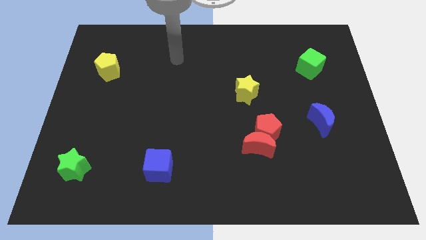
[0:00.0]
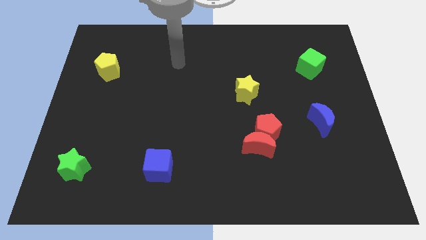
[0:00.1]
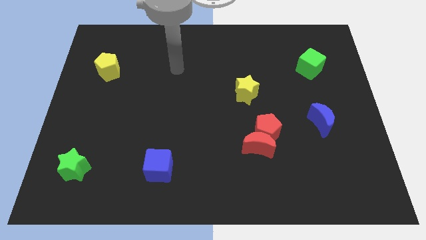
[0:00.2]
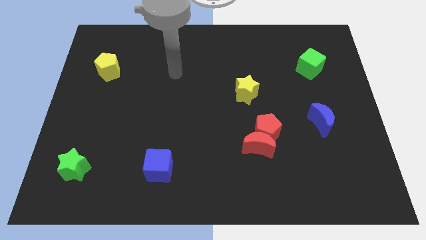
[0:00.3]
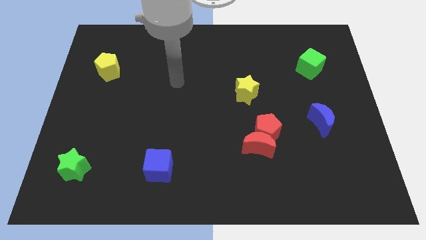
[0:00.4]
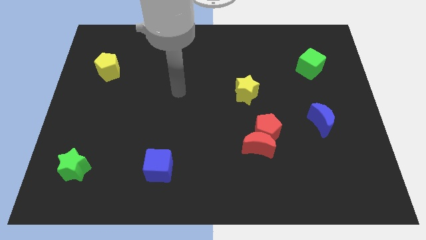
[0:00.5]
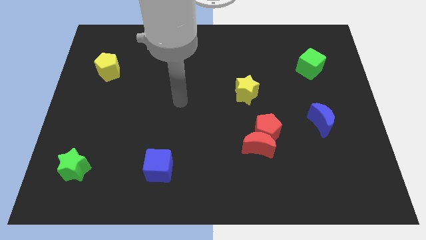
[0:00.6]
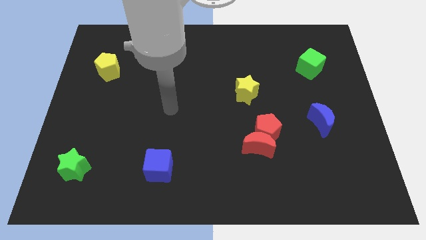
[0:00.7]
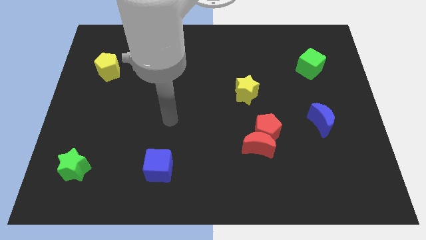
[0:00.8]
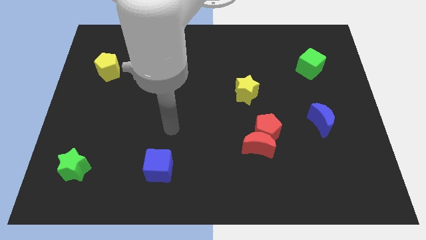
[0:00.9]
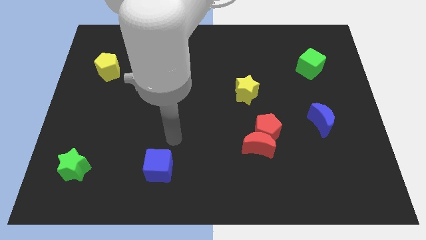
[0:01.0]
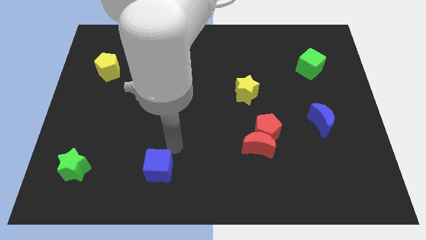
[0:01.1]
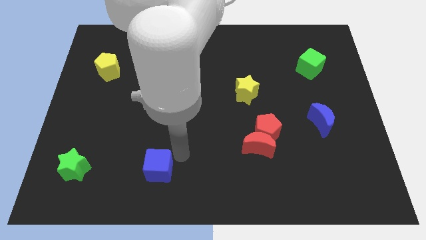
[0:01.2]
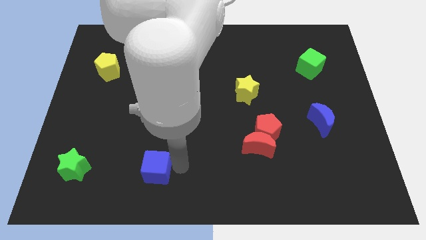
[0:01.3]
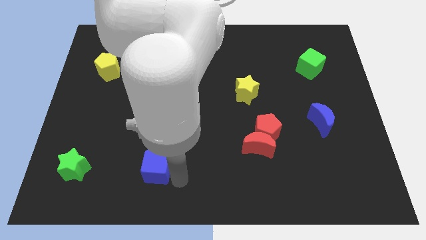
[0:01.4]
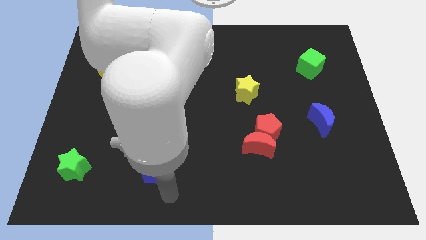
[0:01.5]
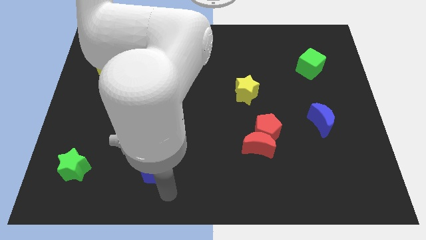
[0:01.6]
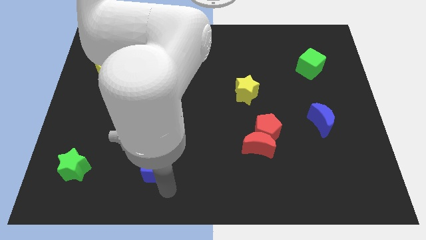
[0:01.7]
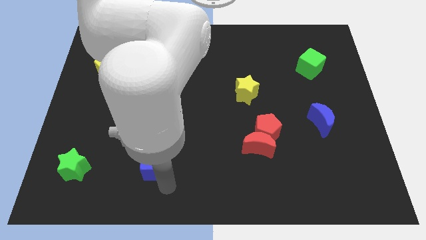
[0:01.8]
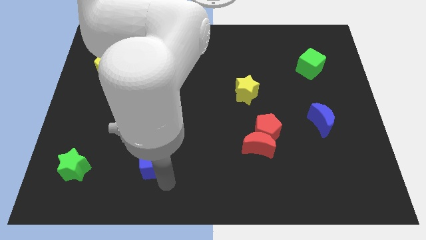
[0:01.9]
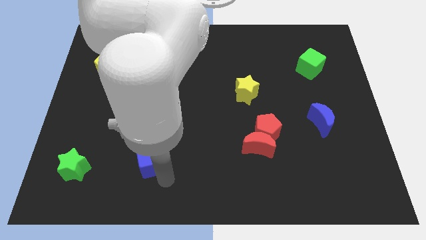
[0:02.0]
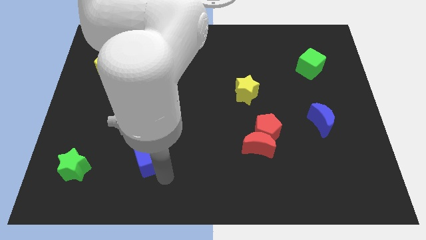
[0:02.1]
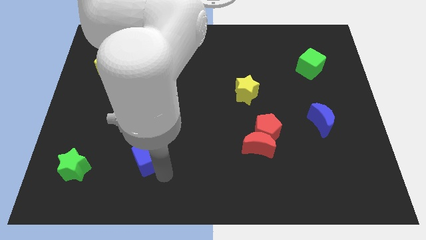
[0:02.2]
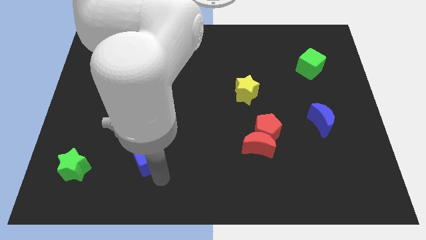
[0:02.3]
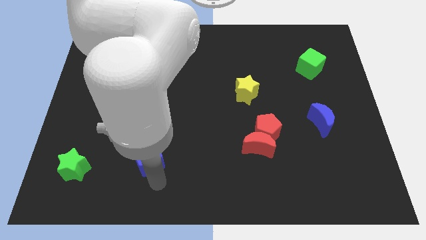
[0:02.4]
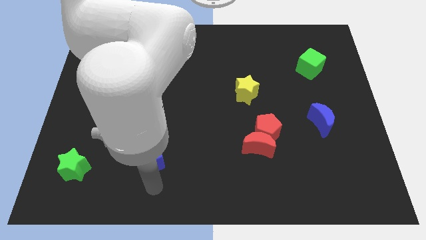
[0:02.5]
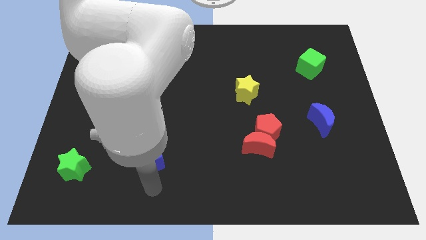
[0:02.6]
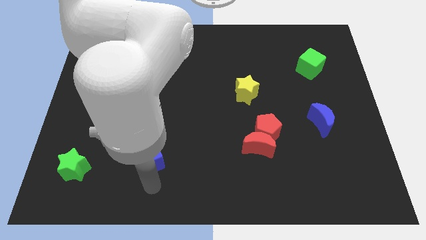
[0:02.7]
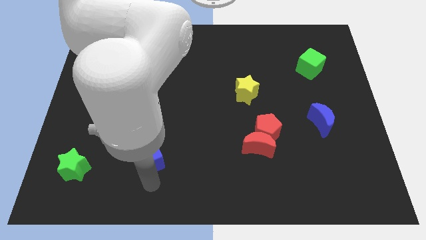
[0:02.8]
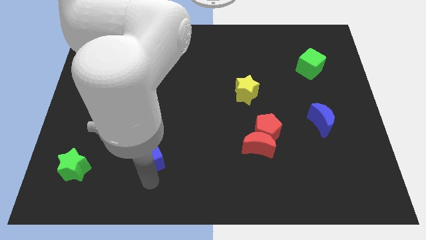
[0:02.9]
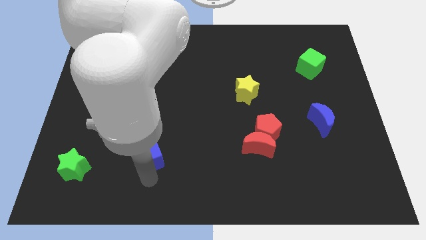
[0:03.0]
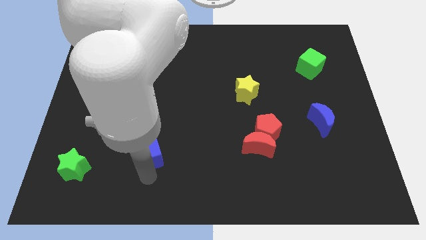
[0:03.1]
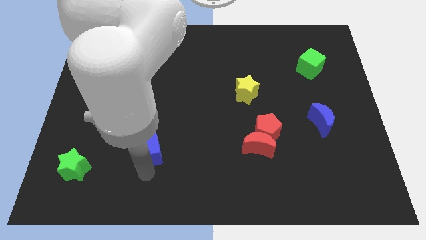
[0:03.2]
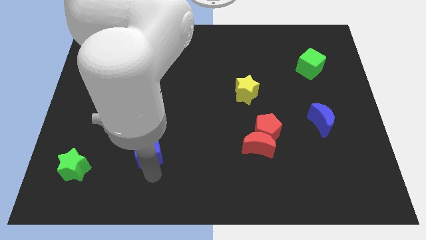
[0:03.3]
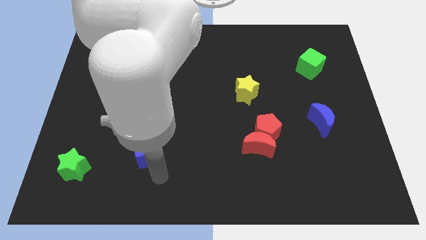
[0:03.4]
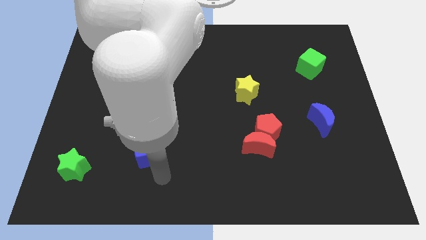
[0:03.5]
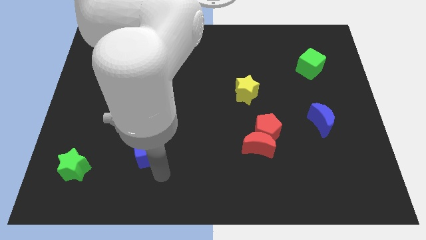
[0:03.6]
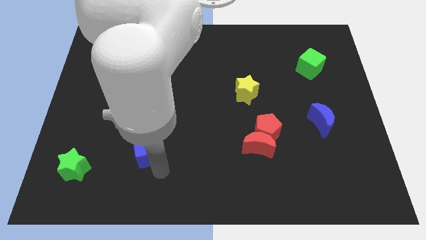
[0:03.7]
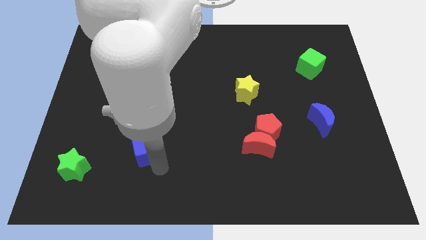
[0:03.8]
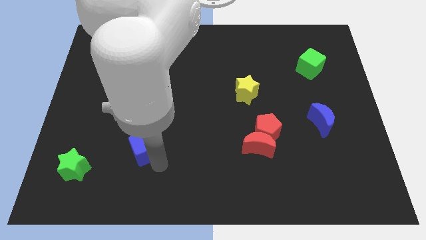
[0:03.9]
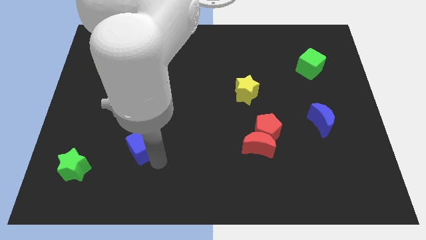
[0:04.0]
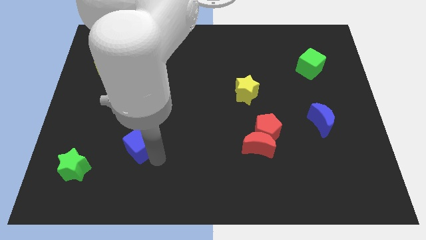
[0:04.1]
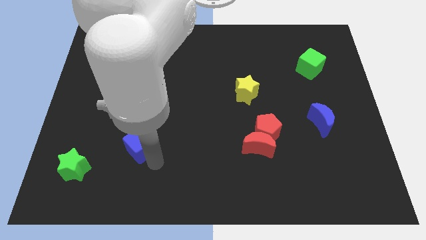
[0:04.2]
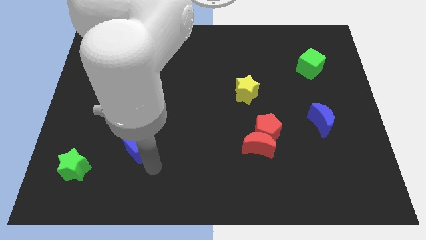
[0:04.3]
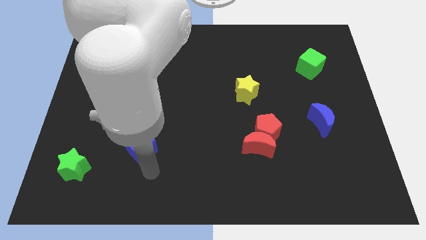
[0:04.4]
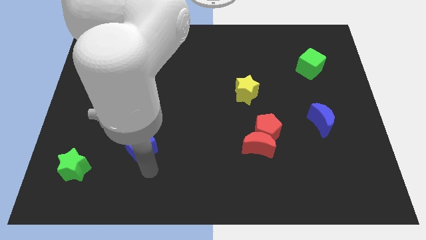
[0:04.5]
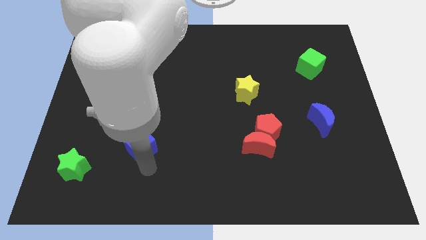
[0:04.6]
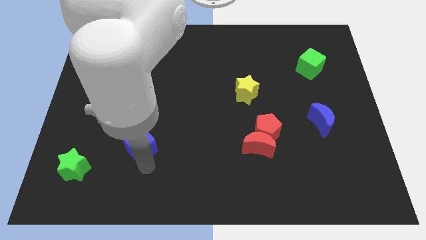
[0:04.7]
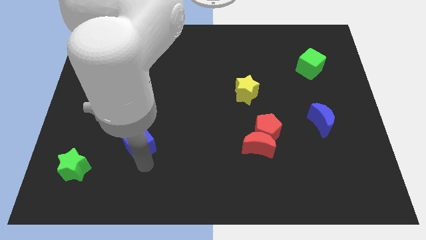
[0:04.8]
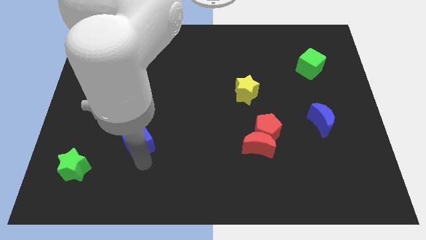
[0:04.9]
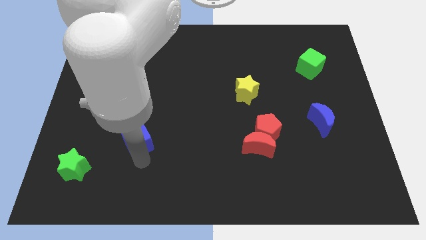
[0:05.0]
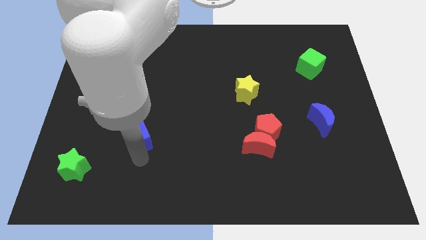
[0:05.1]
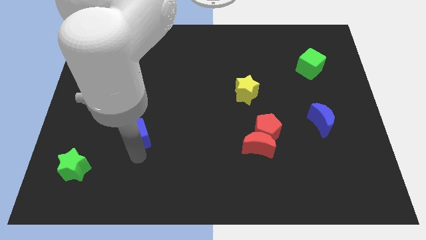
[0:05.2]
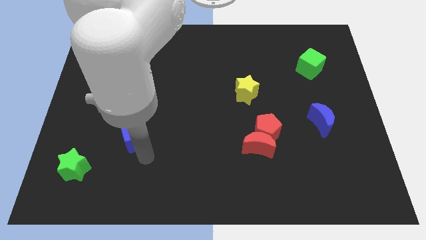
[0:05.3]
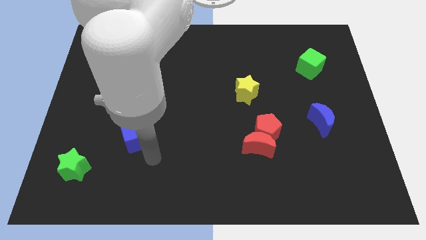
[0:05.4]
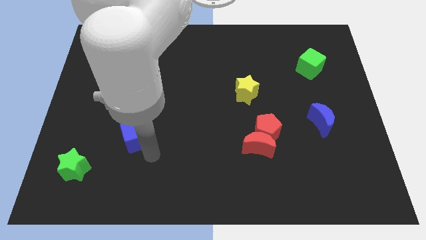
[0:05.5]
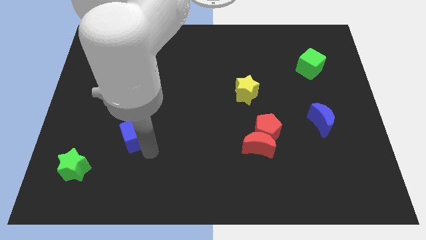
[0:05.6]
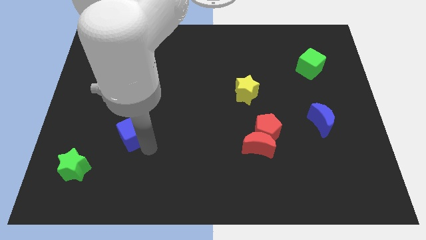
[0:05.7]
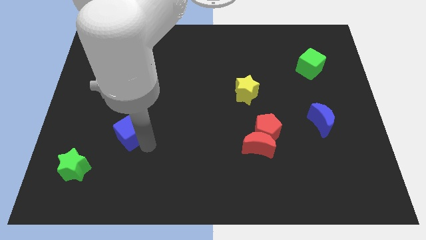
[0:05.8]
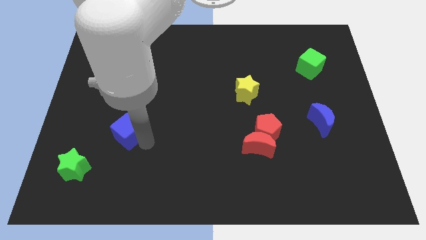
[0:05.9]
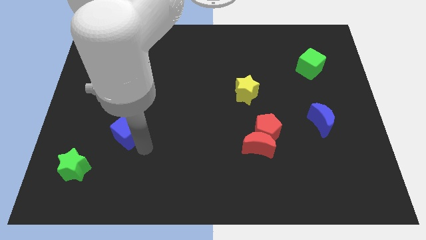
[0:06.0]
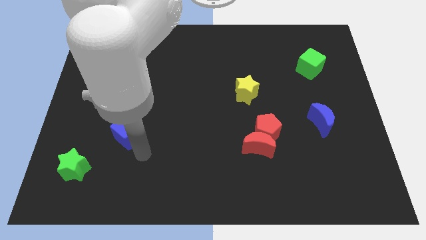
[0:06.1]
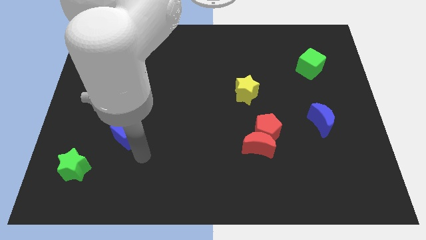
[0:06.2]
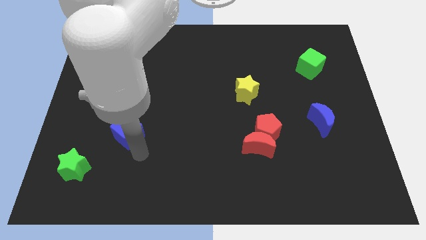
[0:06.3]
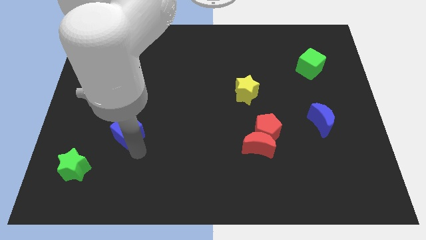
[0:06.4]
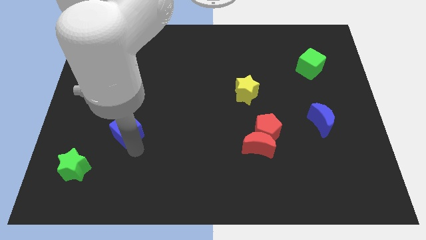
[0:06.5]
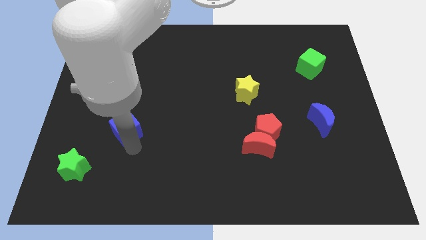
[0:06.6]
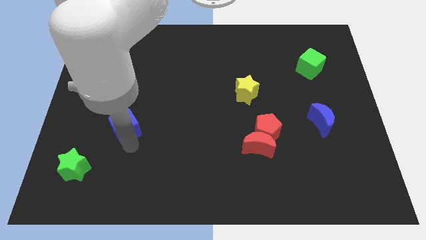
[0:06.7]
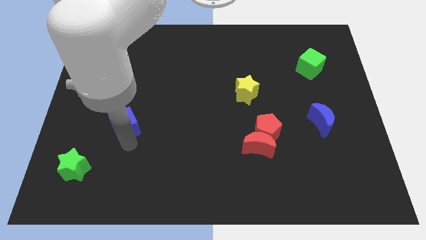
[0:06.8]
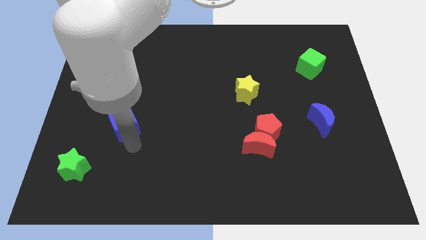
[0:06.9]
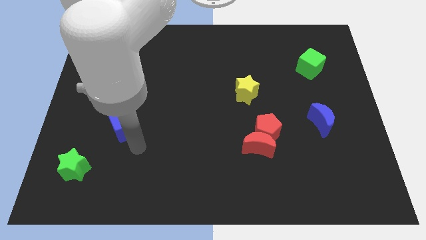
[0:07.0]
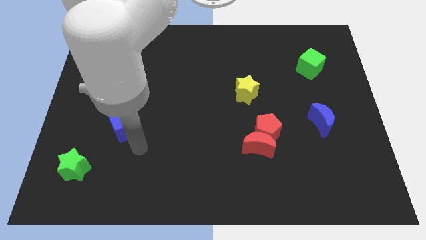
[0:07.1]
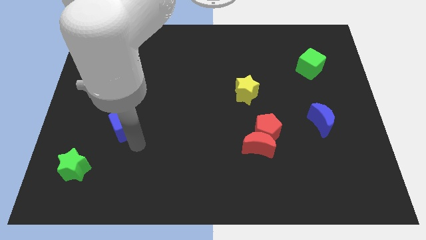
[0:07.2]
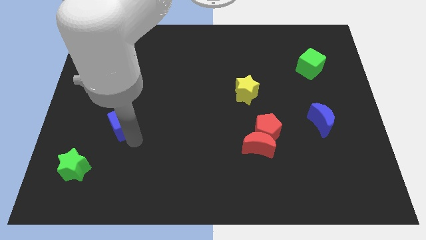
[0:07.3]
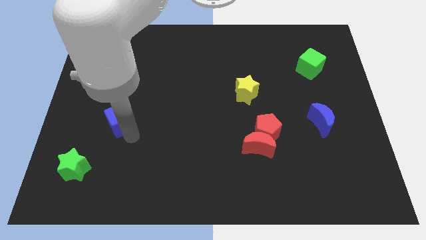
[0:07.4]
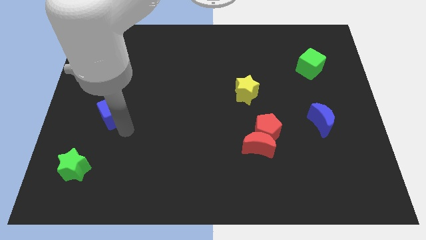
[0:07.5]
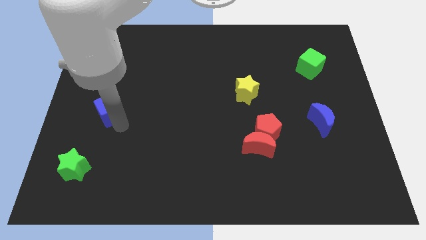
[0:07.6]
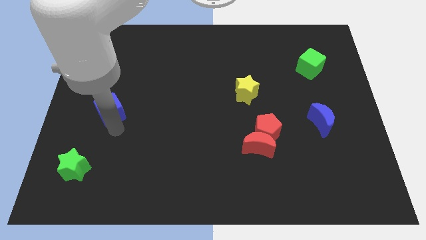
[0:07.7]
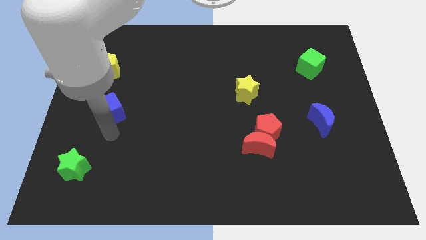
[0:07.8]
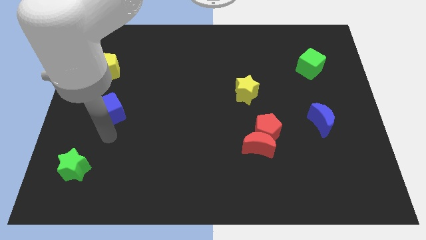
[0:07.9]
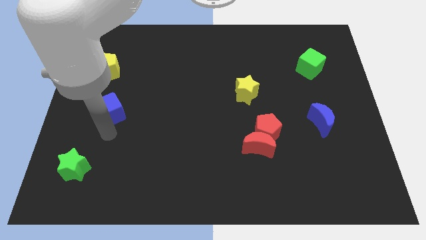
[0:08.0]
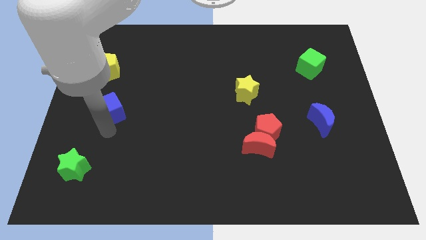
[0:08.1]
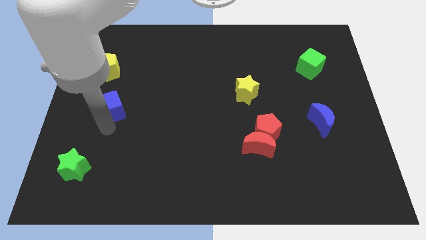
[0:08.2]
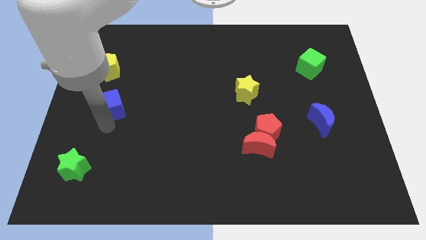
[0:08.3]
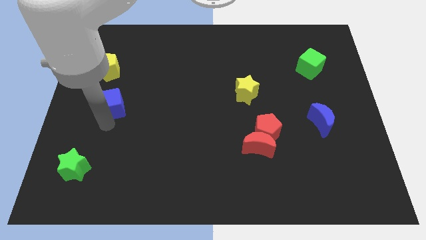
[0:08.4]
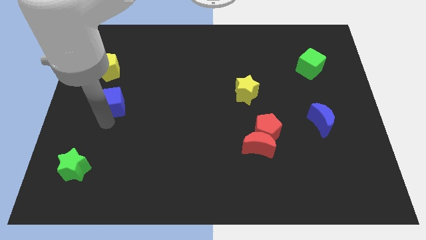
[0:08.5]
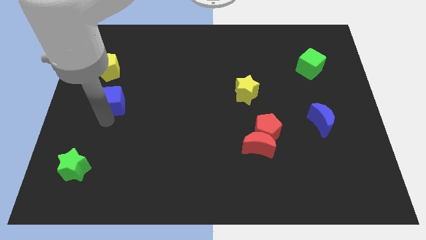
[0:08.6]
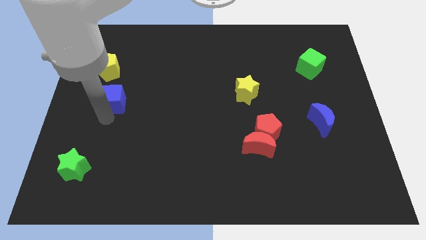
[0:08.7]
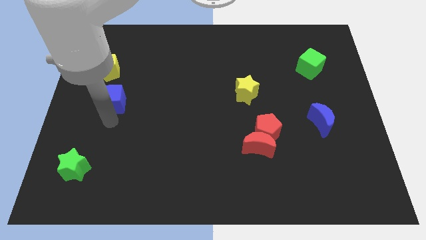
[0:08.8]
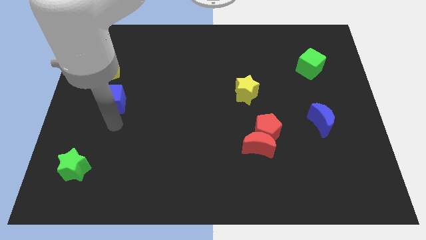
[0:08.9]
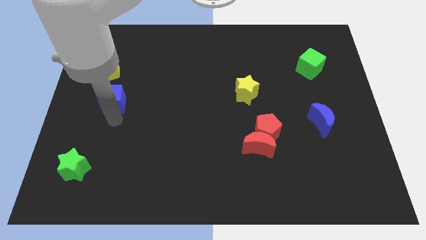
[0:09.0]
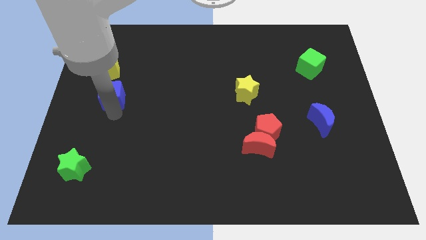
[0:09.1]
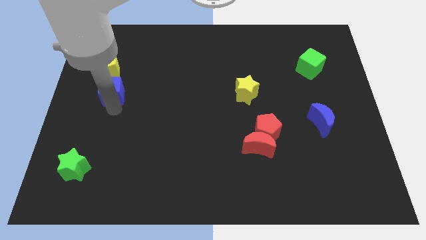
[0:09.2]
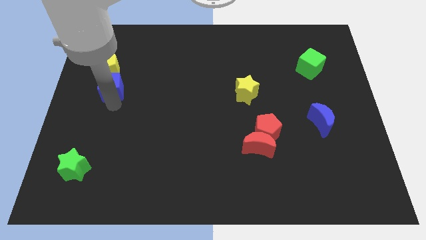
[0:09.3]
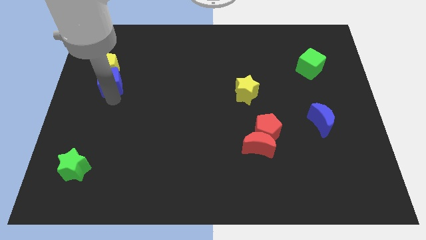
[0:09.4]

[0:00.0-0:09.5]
put the blue cube close to the yellow pentagon
